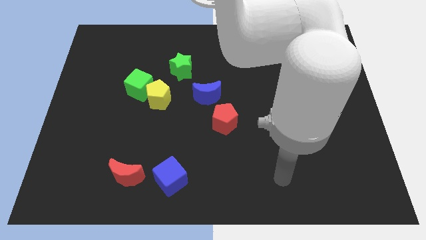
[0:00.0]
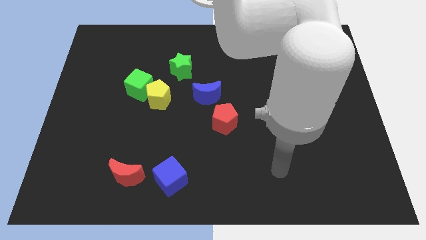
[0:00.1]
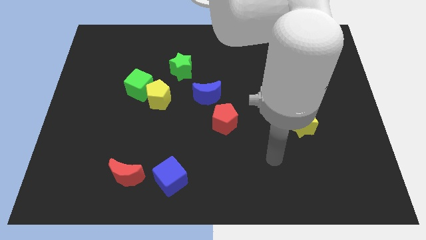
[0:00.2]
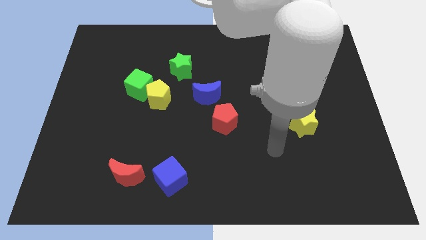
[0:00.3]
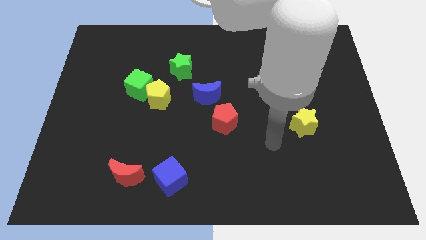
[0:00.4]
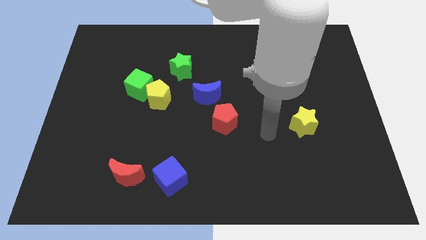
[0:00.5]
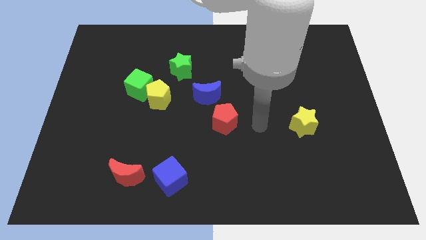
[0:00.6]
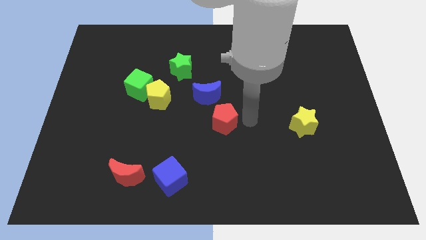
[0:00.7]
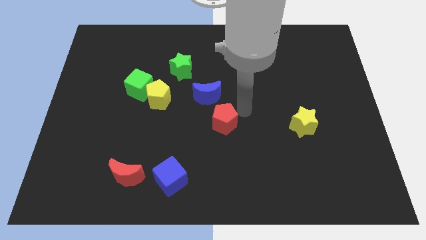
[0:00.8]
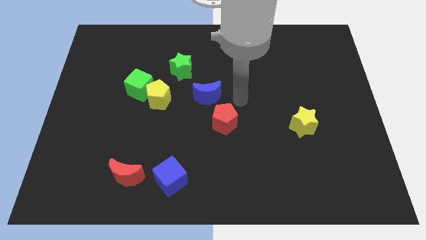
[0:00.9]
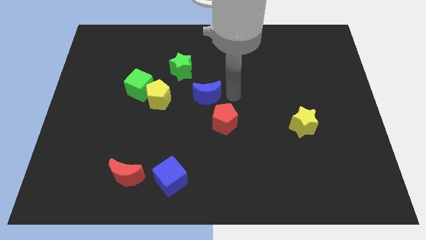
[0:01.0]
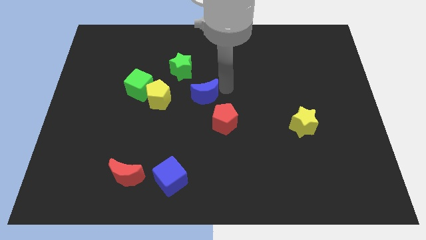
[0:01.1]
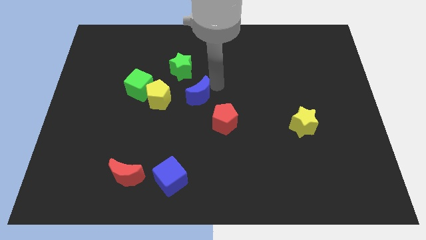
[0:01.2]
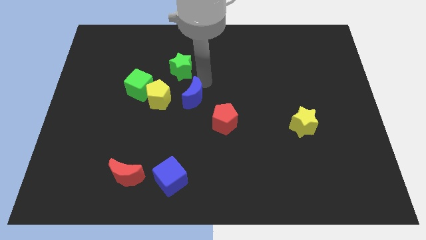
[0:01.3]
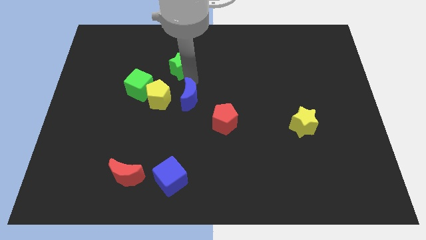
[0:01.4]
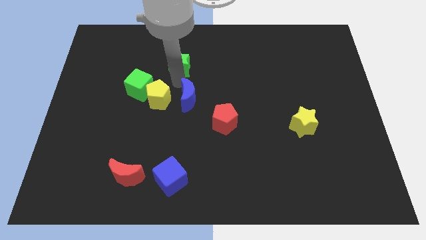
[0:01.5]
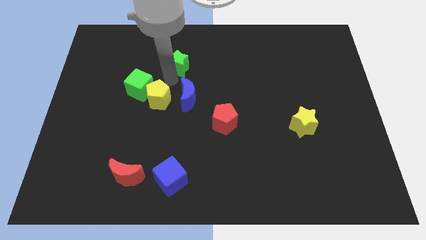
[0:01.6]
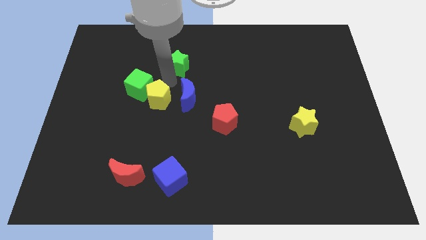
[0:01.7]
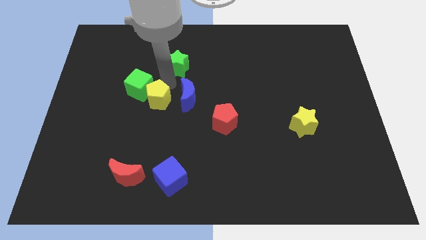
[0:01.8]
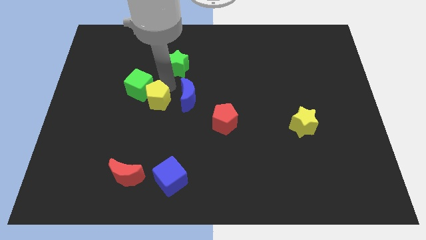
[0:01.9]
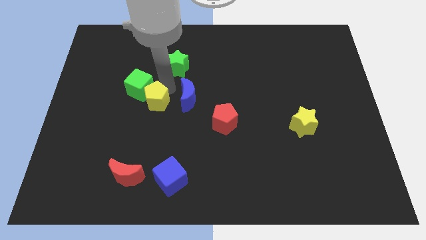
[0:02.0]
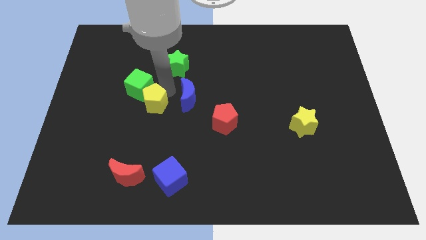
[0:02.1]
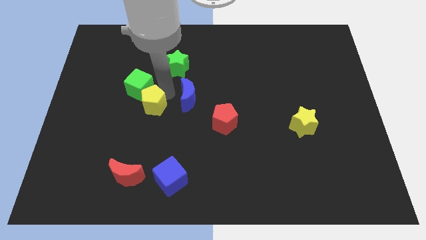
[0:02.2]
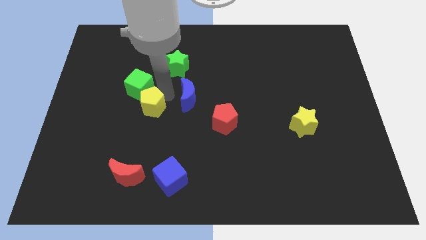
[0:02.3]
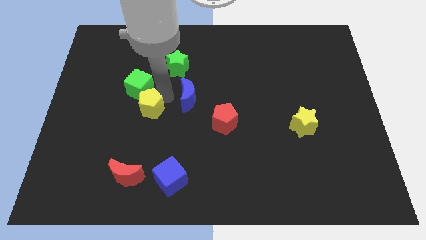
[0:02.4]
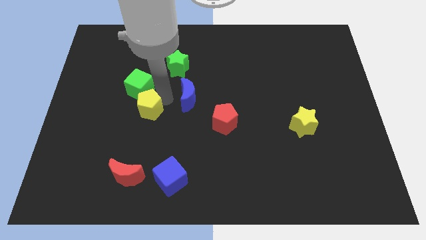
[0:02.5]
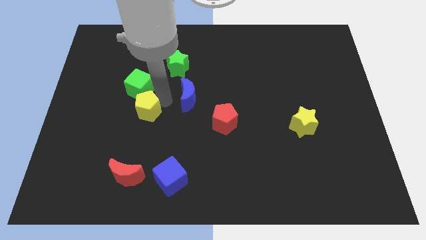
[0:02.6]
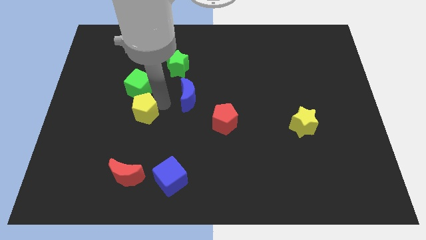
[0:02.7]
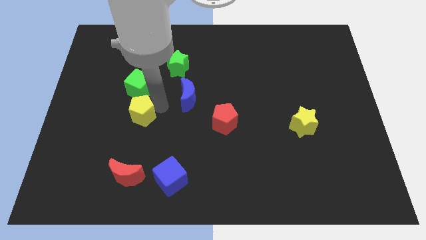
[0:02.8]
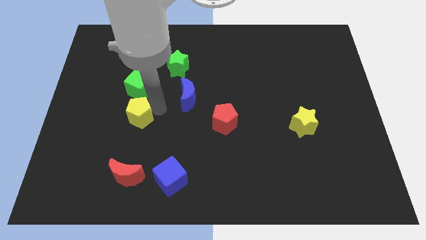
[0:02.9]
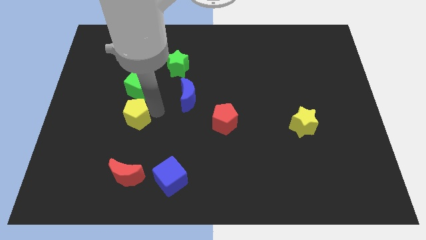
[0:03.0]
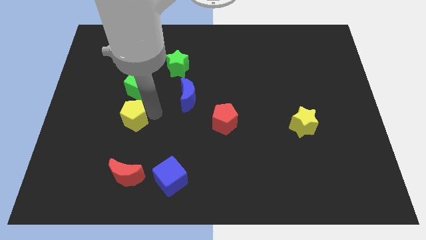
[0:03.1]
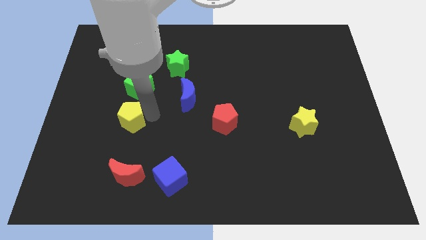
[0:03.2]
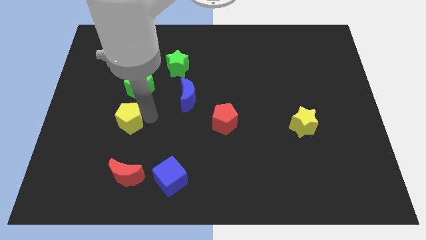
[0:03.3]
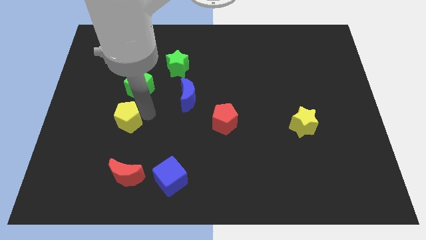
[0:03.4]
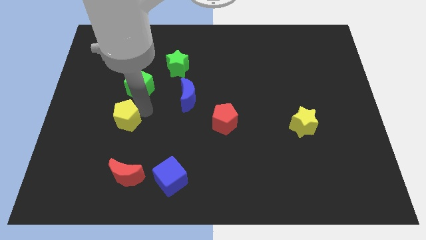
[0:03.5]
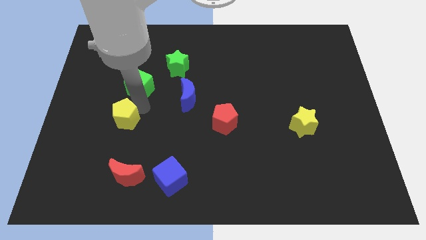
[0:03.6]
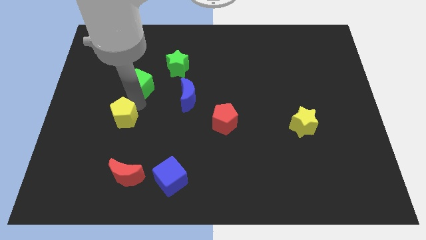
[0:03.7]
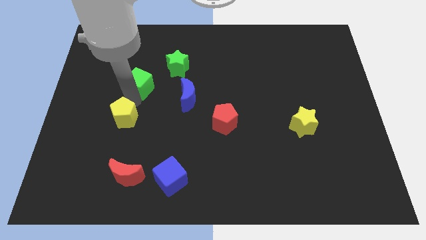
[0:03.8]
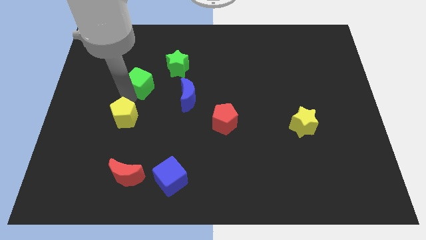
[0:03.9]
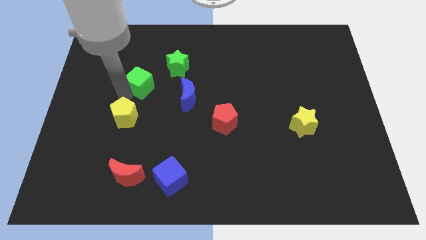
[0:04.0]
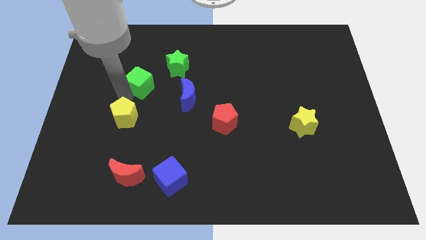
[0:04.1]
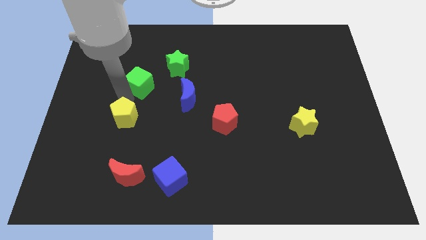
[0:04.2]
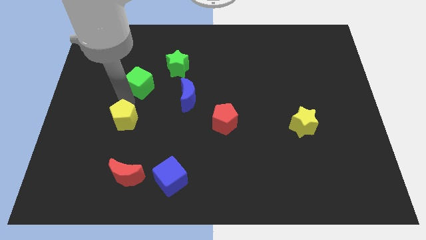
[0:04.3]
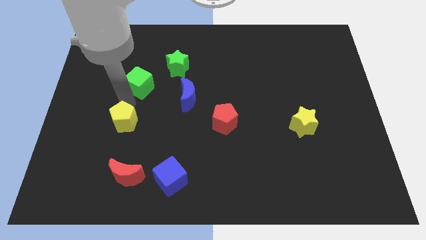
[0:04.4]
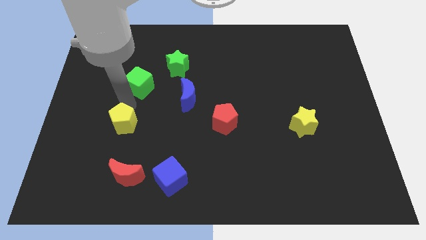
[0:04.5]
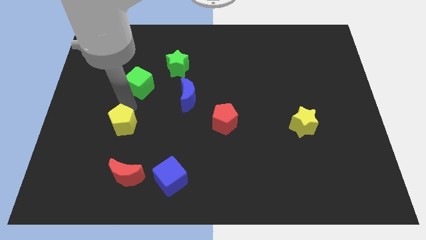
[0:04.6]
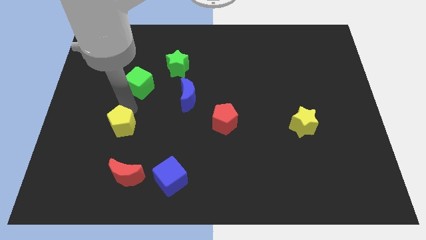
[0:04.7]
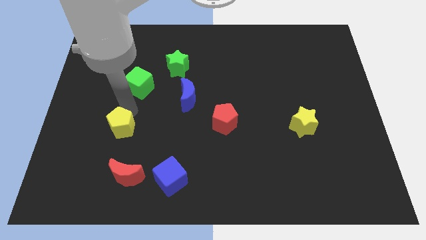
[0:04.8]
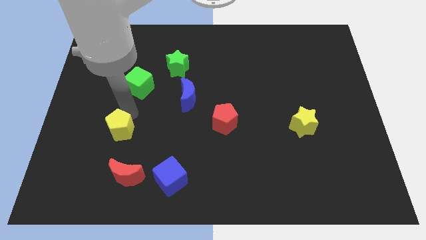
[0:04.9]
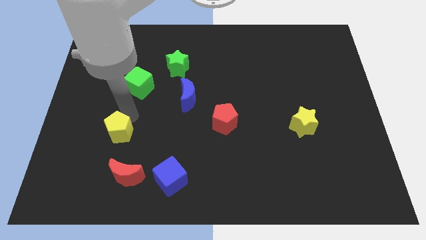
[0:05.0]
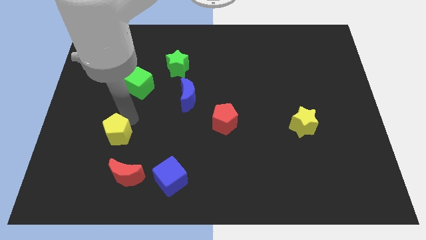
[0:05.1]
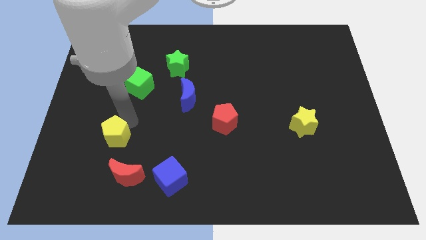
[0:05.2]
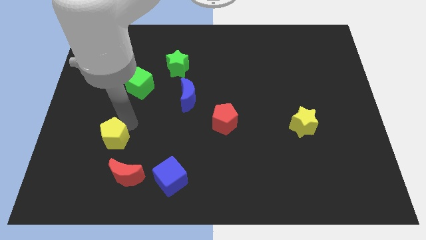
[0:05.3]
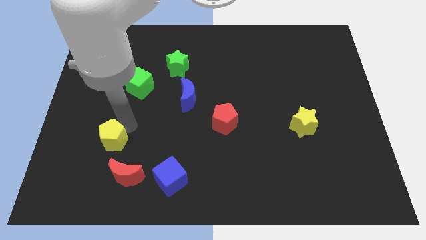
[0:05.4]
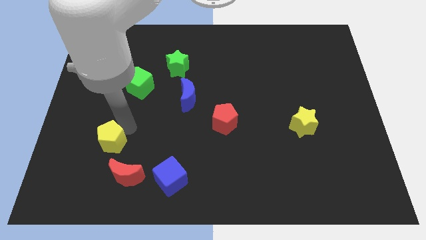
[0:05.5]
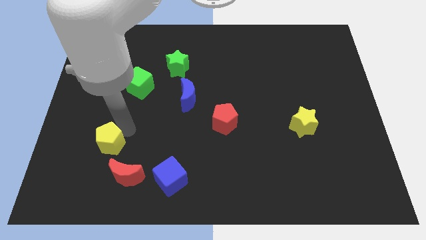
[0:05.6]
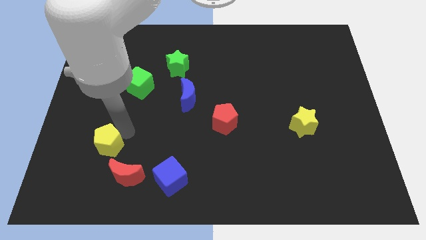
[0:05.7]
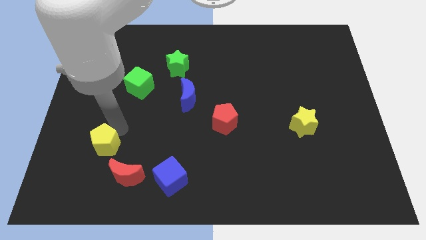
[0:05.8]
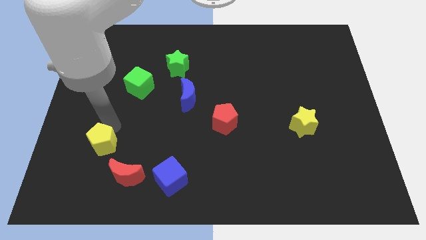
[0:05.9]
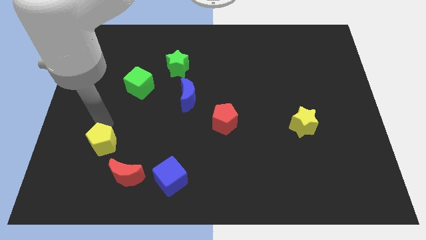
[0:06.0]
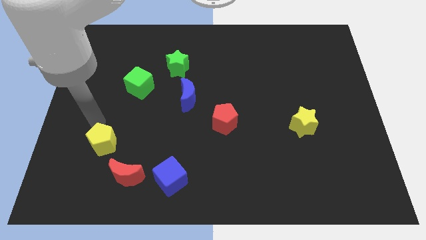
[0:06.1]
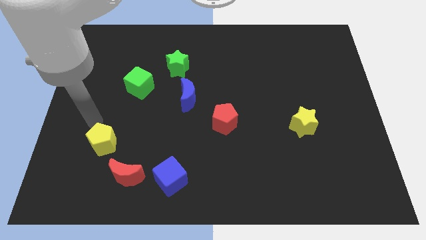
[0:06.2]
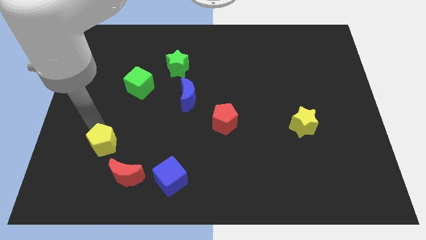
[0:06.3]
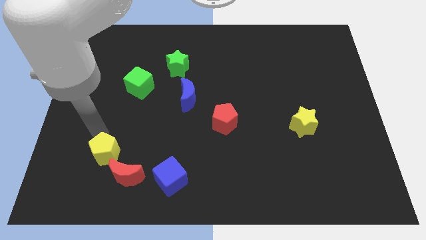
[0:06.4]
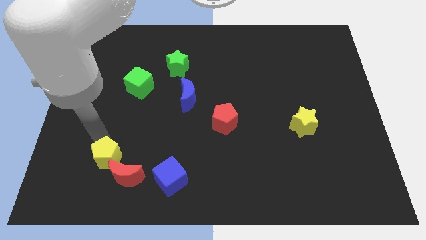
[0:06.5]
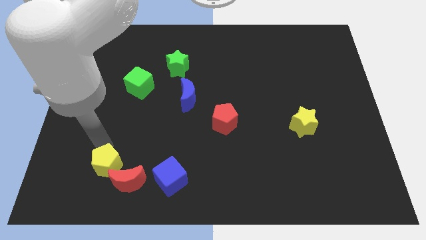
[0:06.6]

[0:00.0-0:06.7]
move the yellow pentagon left of the blue cube

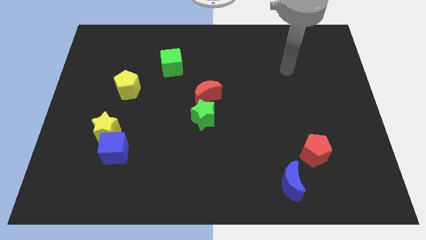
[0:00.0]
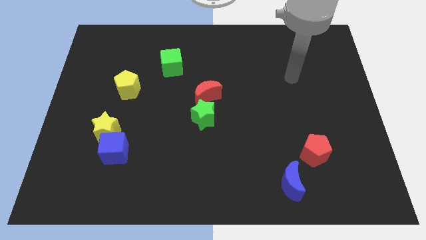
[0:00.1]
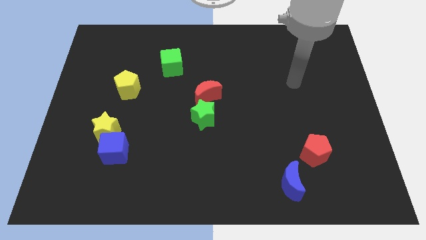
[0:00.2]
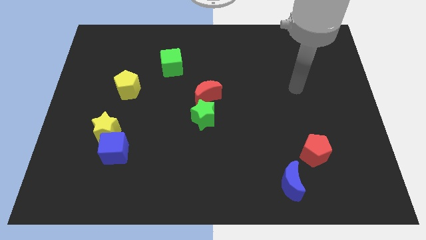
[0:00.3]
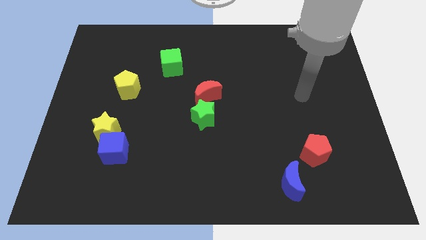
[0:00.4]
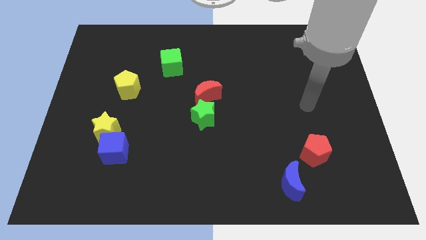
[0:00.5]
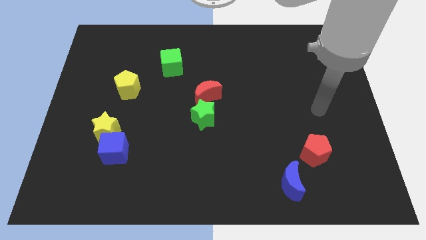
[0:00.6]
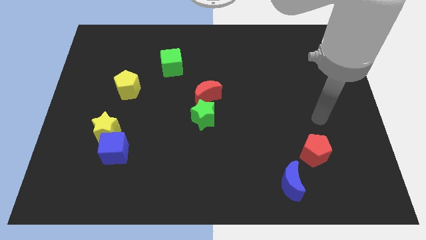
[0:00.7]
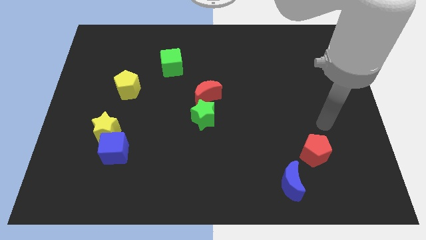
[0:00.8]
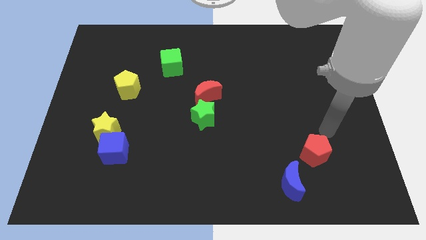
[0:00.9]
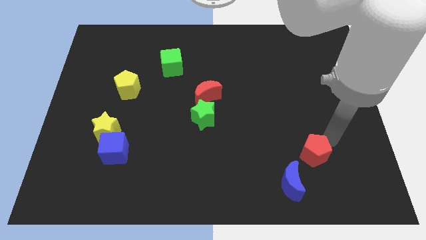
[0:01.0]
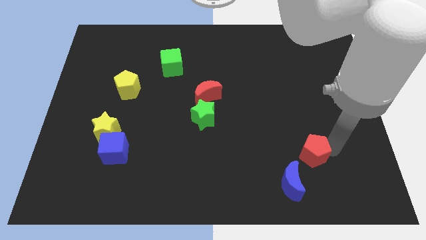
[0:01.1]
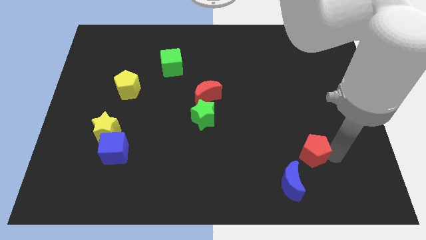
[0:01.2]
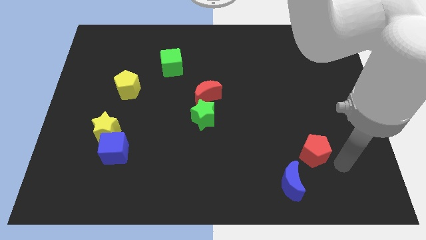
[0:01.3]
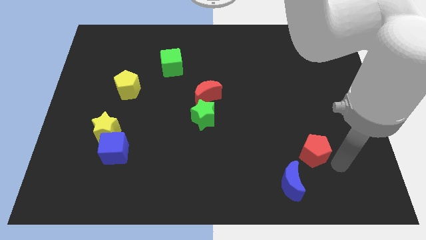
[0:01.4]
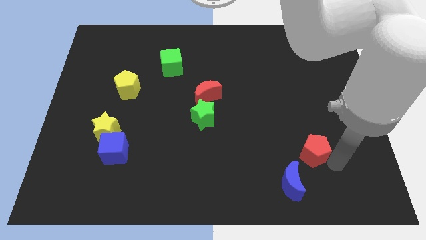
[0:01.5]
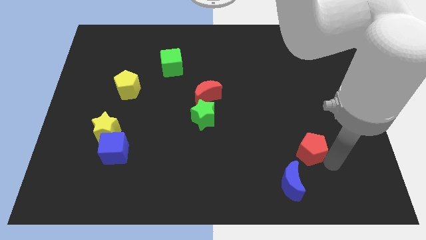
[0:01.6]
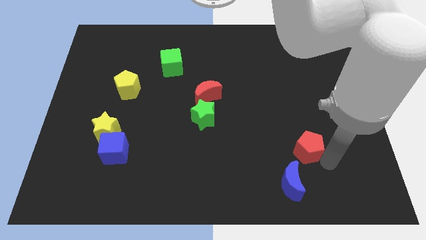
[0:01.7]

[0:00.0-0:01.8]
move the red pentagon to the top of the blue moon
